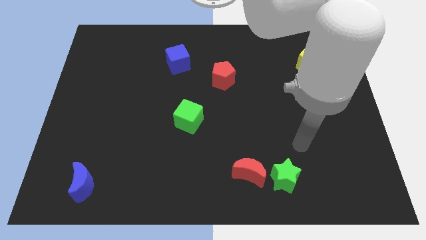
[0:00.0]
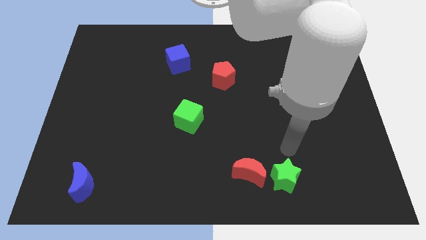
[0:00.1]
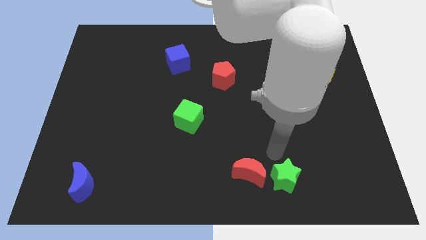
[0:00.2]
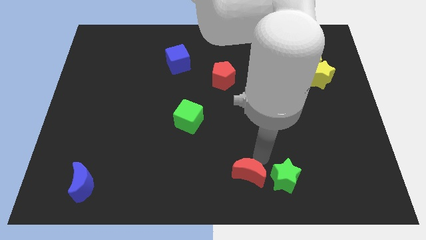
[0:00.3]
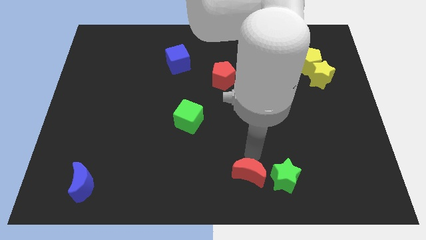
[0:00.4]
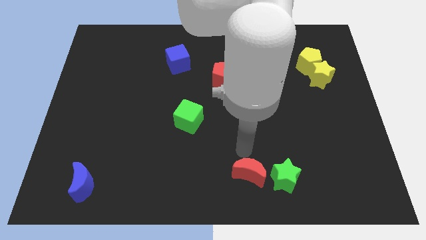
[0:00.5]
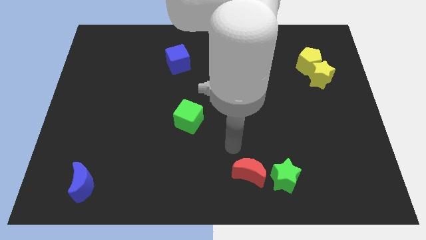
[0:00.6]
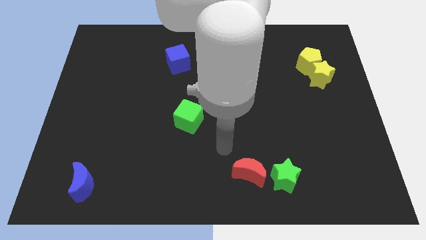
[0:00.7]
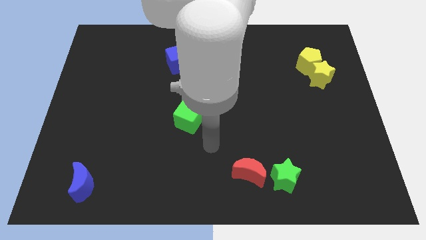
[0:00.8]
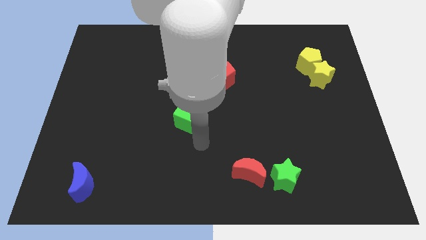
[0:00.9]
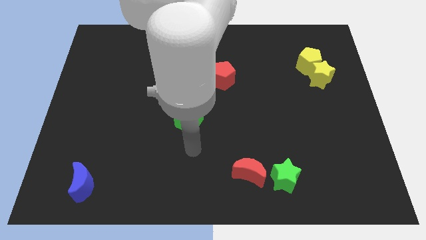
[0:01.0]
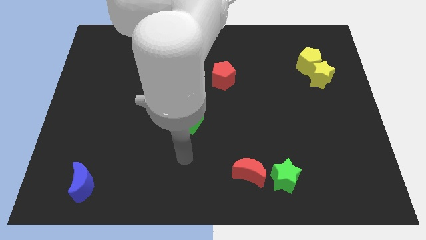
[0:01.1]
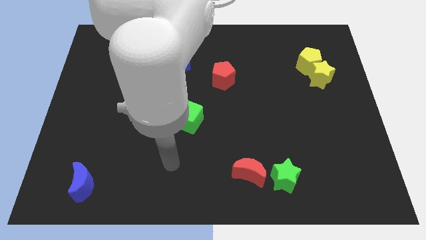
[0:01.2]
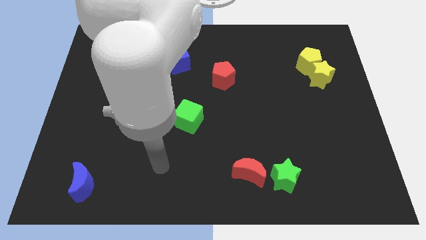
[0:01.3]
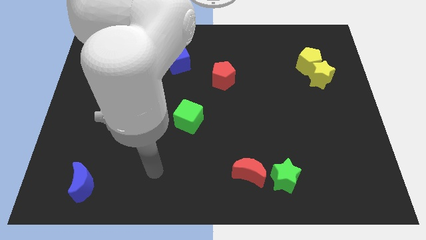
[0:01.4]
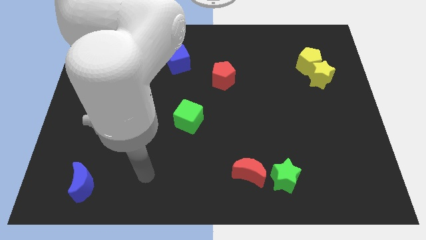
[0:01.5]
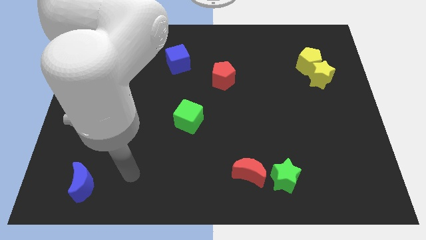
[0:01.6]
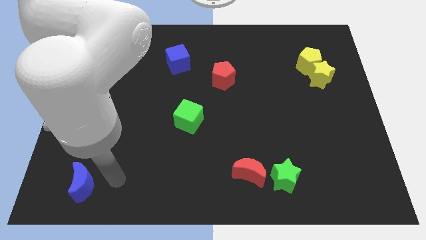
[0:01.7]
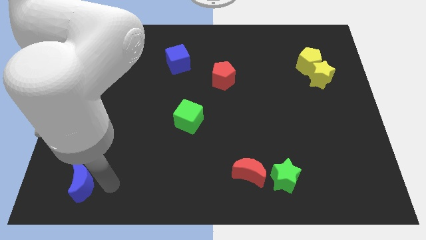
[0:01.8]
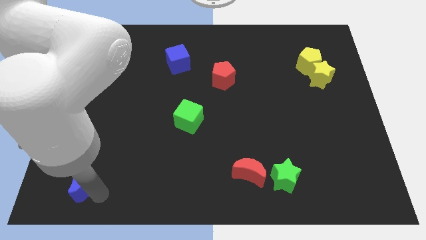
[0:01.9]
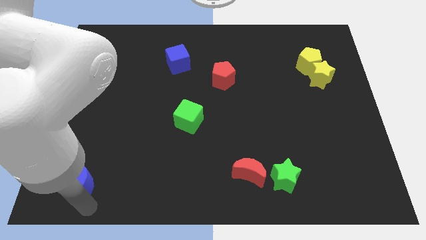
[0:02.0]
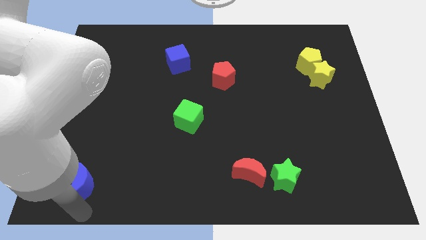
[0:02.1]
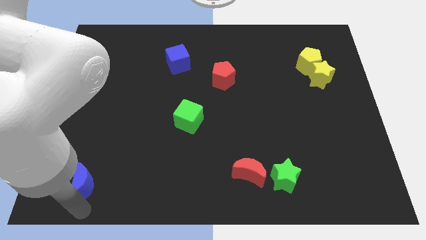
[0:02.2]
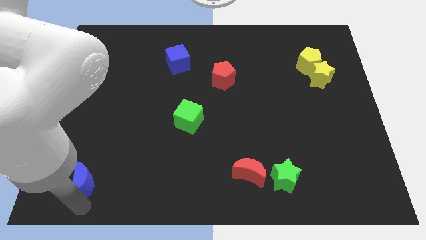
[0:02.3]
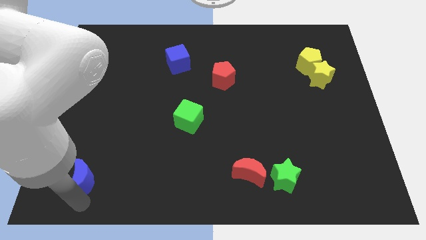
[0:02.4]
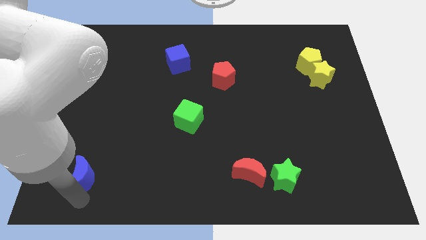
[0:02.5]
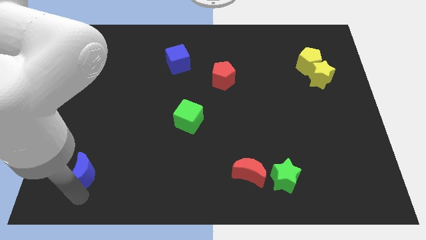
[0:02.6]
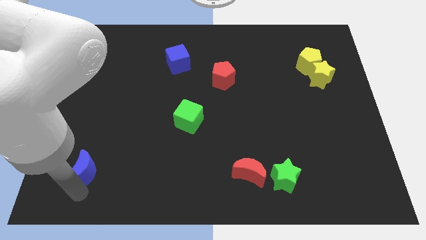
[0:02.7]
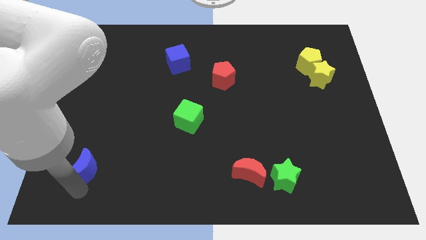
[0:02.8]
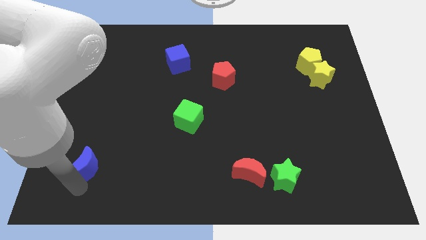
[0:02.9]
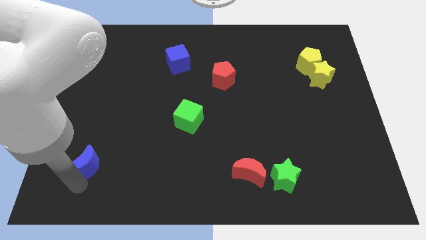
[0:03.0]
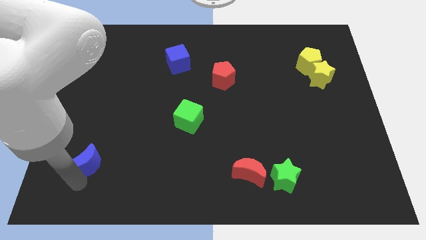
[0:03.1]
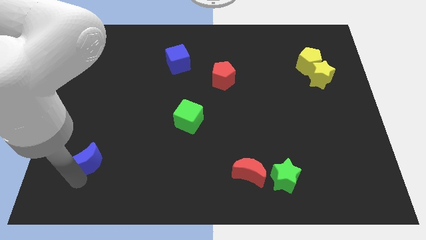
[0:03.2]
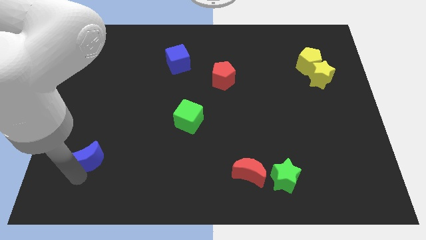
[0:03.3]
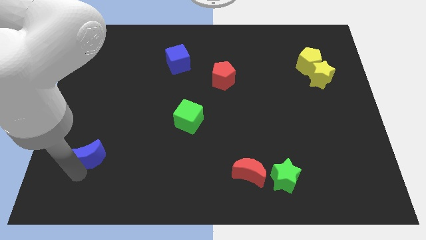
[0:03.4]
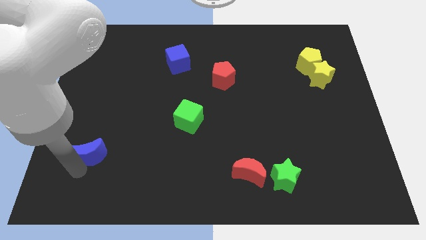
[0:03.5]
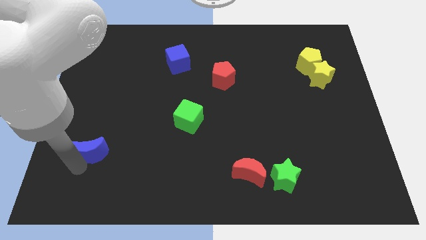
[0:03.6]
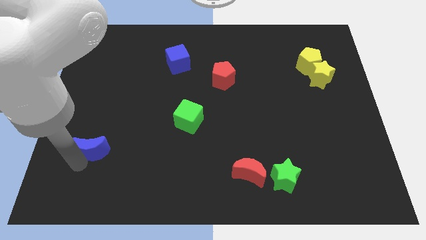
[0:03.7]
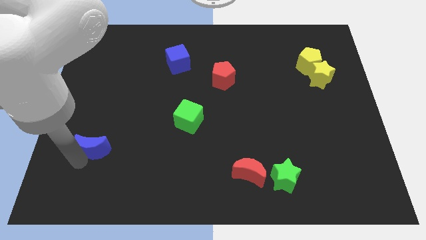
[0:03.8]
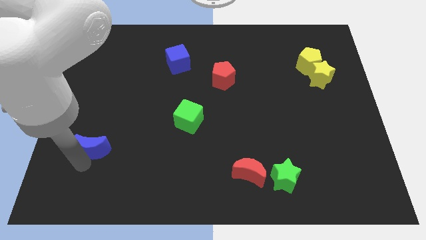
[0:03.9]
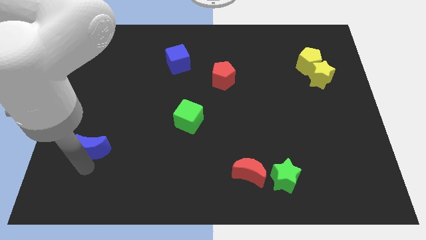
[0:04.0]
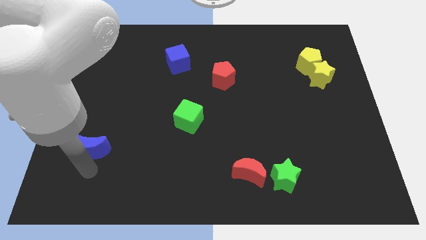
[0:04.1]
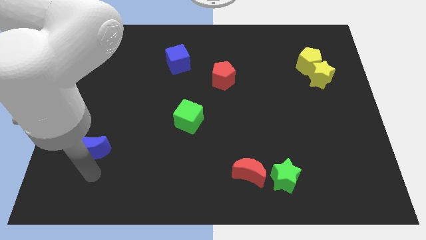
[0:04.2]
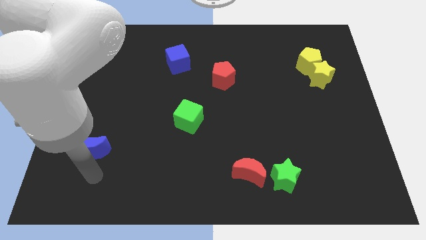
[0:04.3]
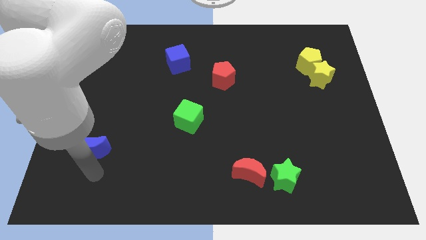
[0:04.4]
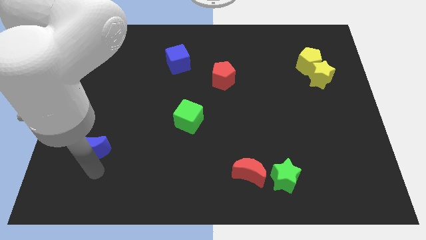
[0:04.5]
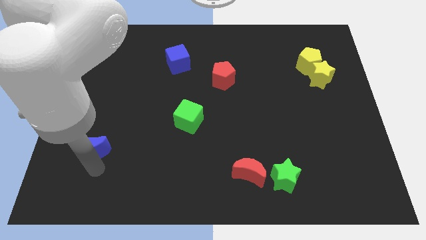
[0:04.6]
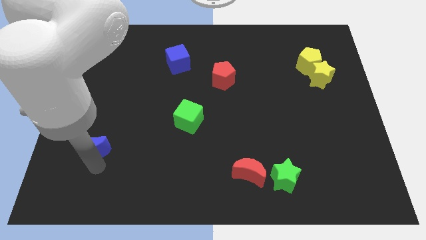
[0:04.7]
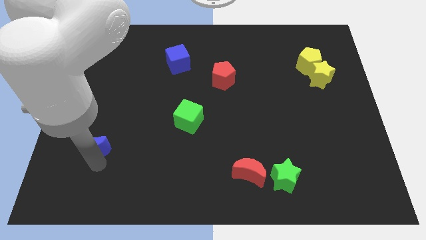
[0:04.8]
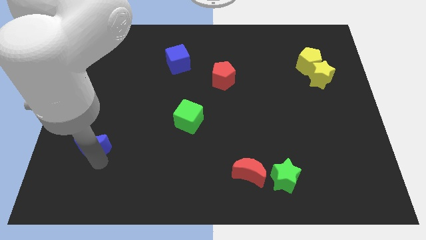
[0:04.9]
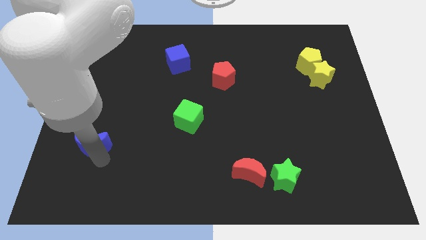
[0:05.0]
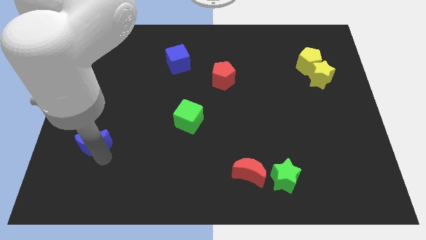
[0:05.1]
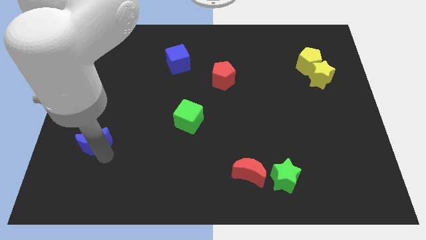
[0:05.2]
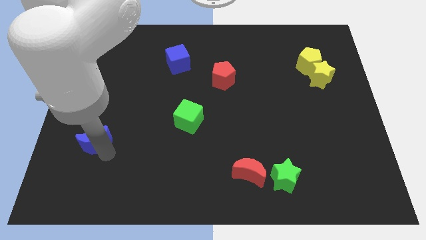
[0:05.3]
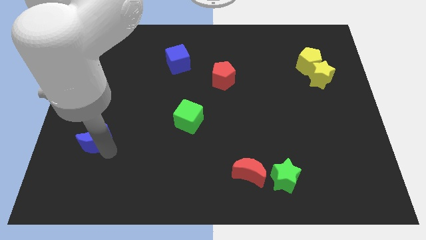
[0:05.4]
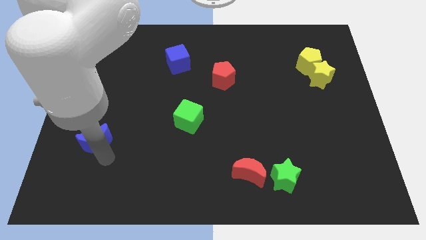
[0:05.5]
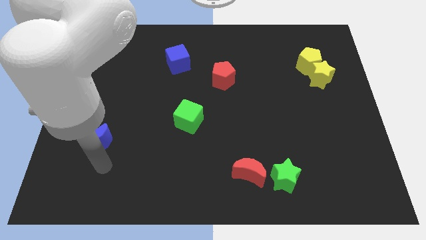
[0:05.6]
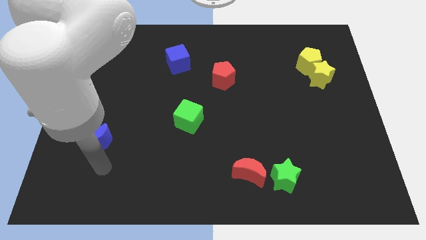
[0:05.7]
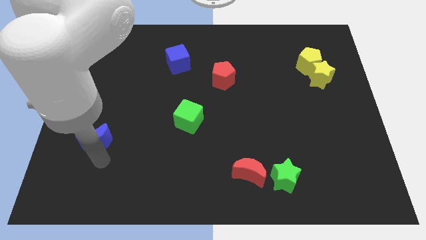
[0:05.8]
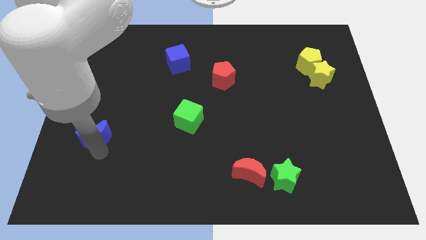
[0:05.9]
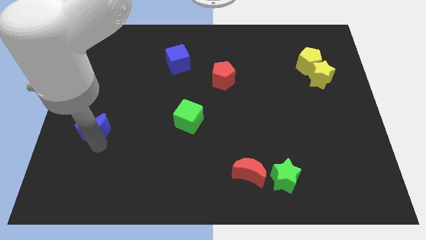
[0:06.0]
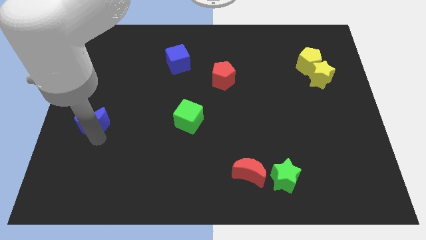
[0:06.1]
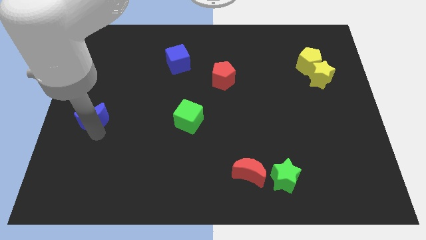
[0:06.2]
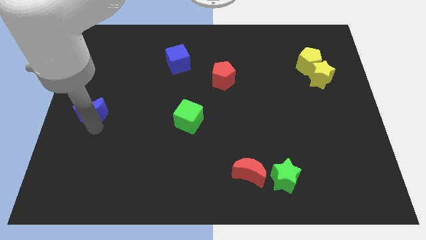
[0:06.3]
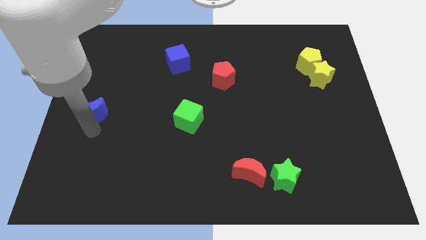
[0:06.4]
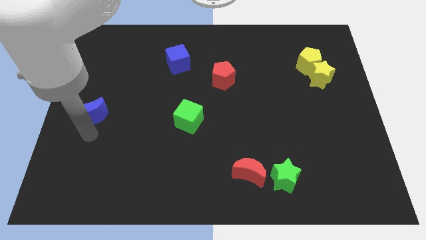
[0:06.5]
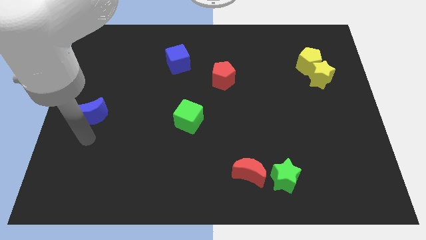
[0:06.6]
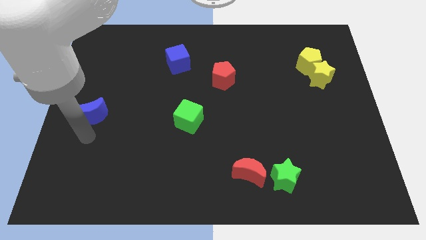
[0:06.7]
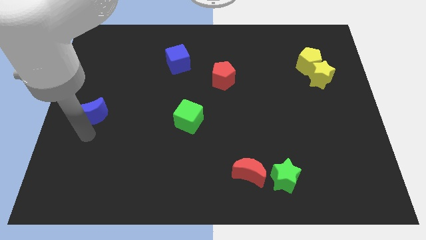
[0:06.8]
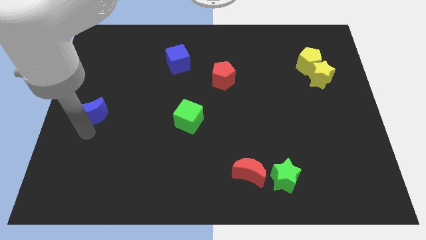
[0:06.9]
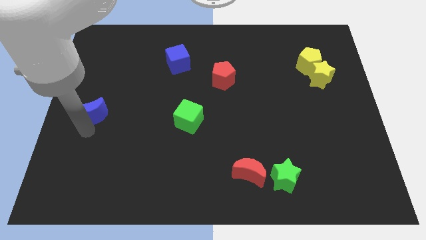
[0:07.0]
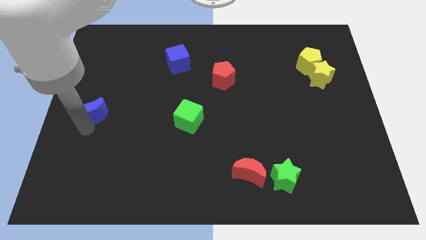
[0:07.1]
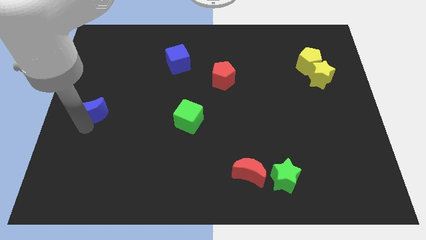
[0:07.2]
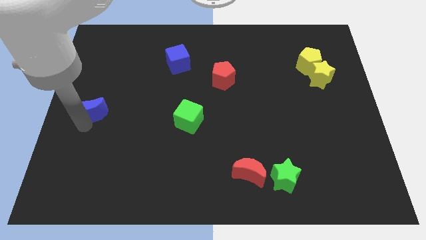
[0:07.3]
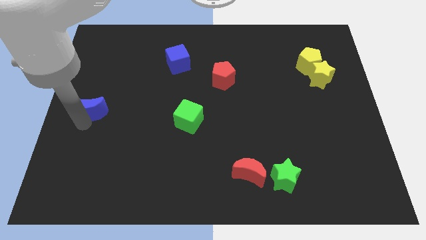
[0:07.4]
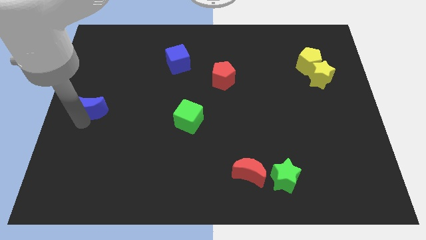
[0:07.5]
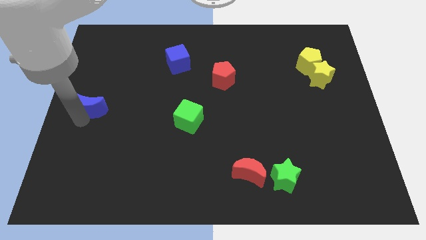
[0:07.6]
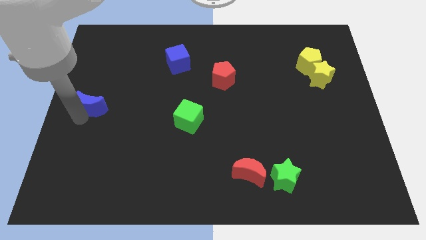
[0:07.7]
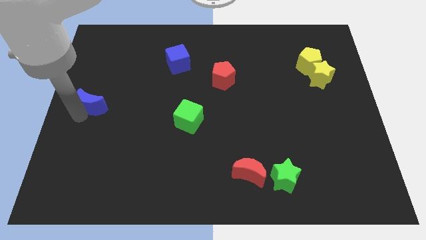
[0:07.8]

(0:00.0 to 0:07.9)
push the blue moon upwards
